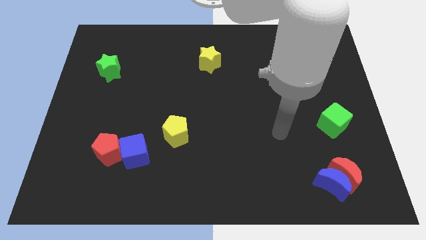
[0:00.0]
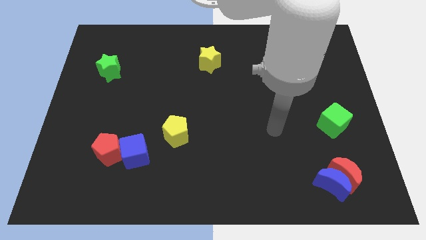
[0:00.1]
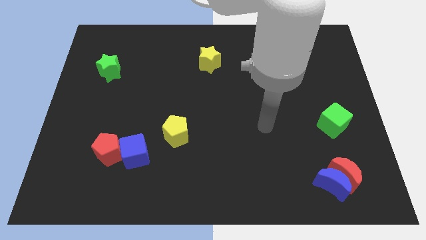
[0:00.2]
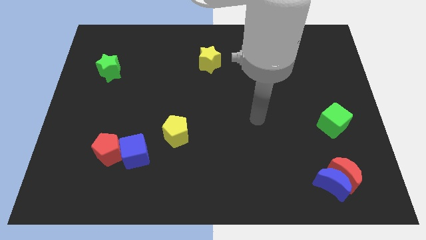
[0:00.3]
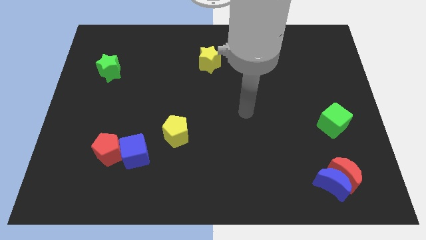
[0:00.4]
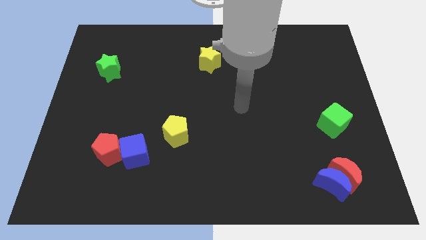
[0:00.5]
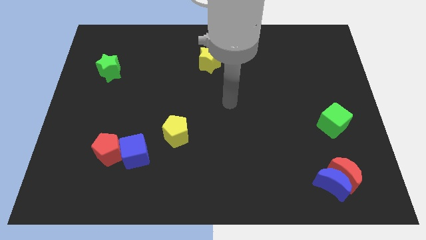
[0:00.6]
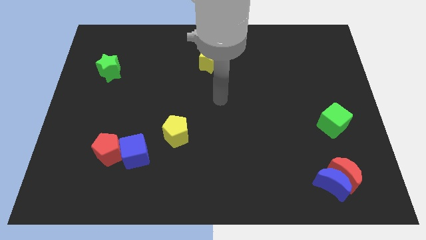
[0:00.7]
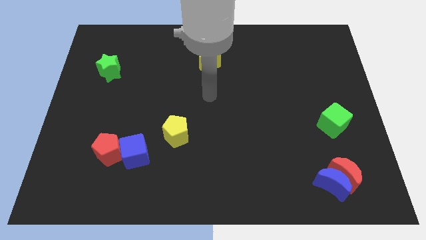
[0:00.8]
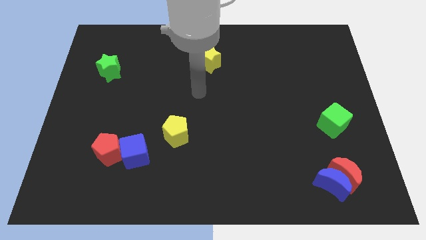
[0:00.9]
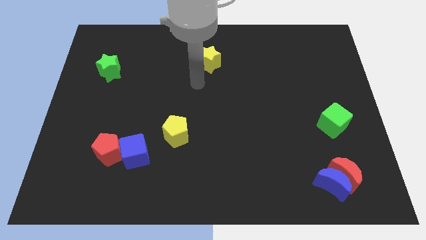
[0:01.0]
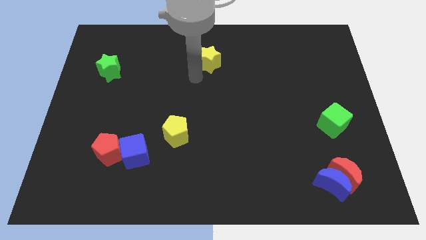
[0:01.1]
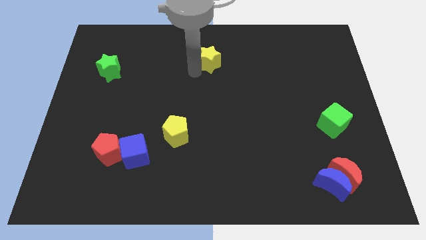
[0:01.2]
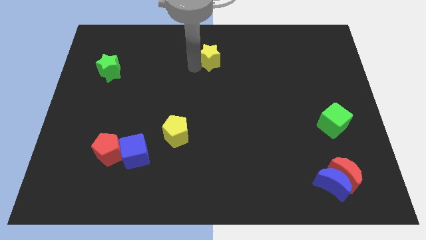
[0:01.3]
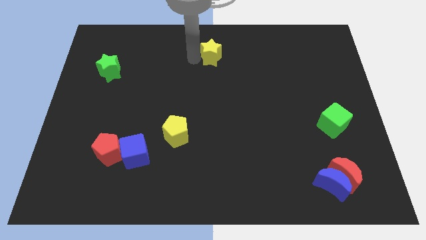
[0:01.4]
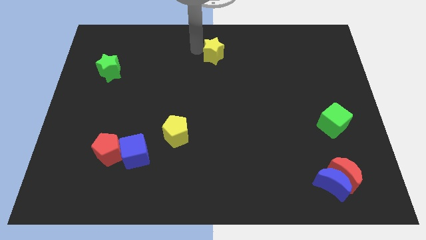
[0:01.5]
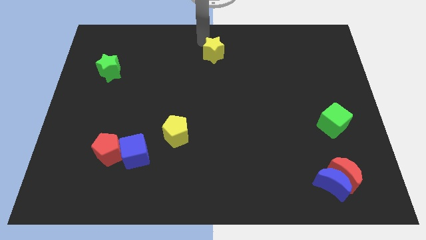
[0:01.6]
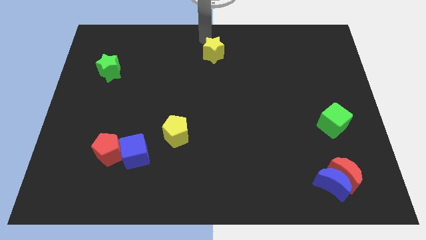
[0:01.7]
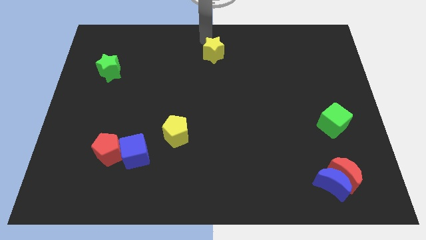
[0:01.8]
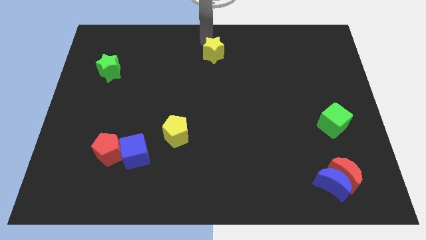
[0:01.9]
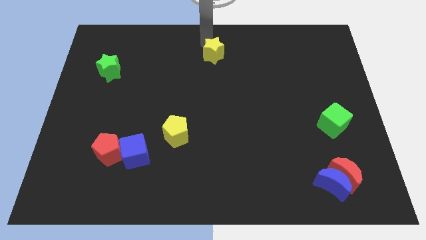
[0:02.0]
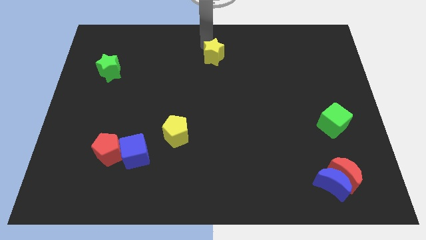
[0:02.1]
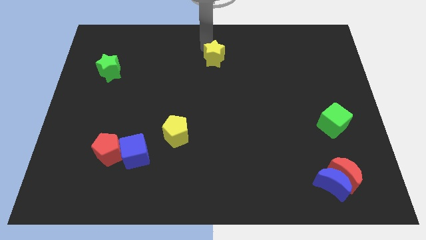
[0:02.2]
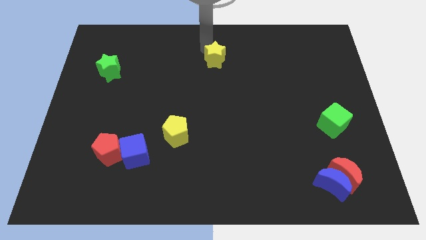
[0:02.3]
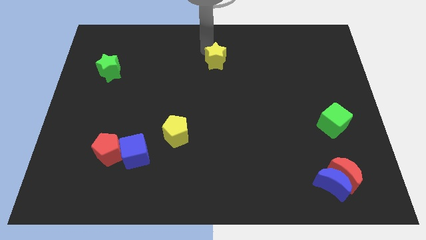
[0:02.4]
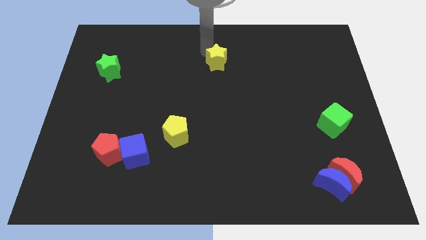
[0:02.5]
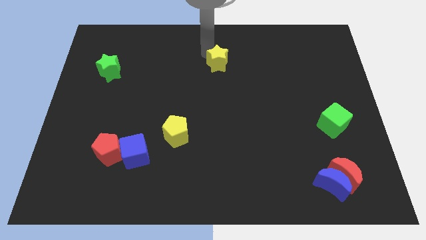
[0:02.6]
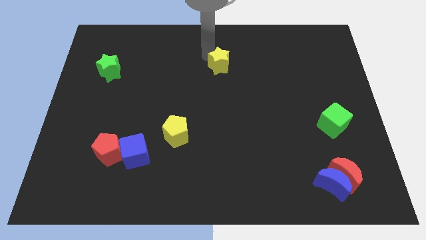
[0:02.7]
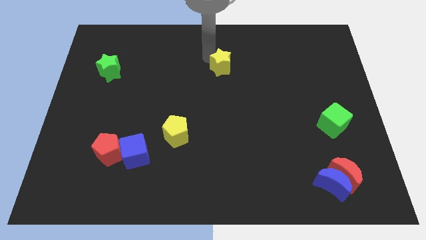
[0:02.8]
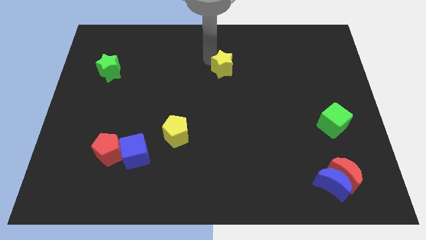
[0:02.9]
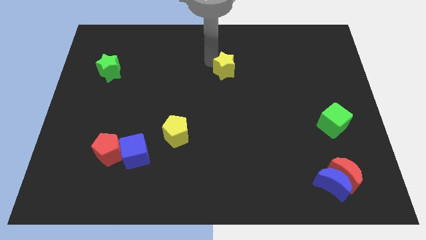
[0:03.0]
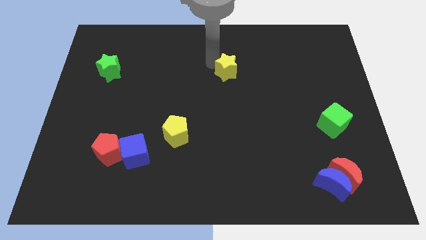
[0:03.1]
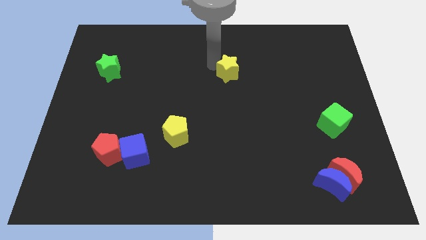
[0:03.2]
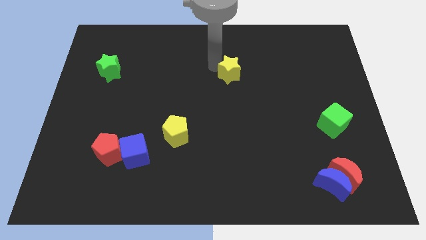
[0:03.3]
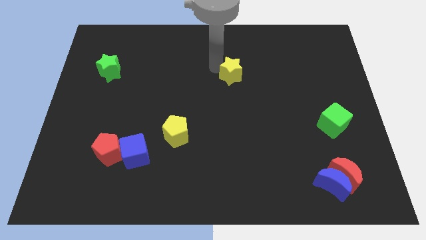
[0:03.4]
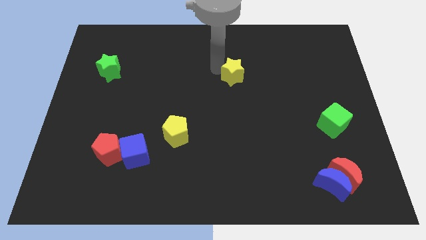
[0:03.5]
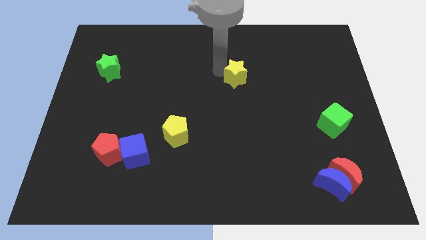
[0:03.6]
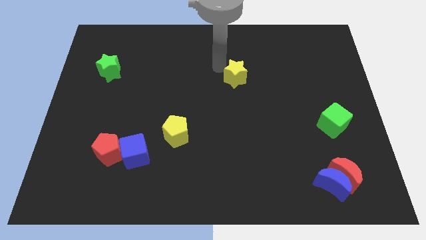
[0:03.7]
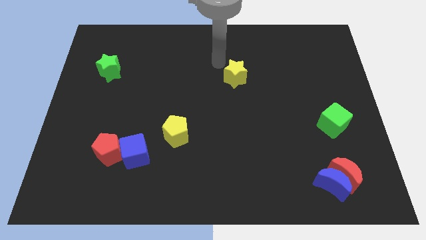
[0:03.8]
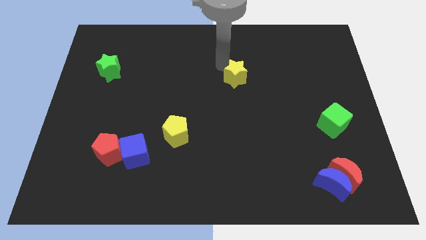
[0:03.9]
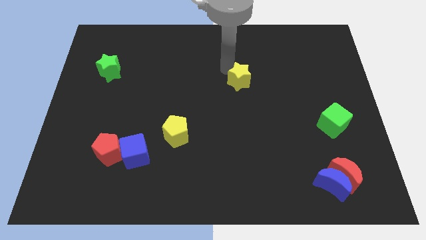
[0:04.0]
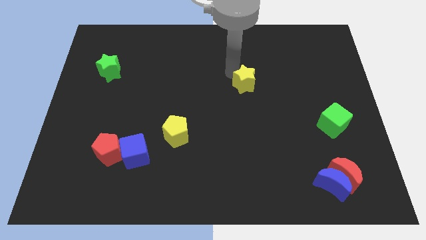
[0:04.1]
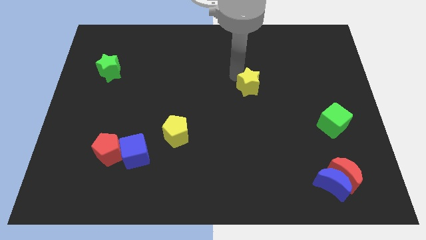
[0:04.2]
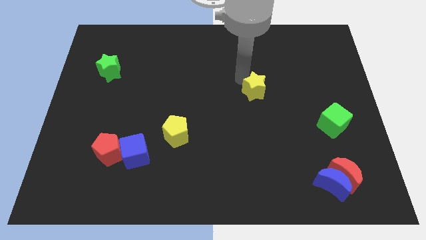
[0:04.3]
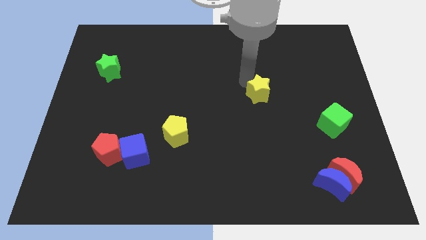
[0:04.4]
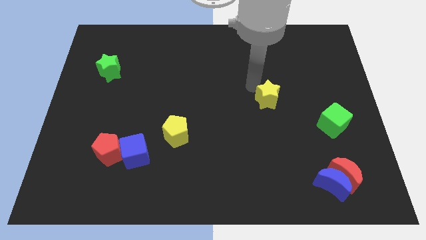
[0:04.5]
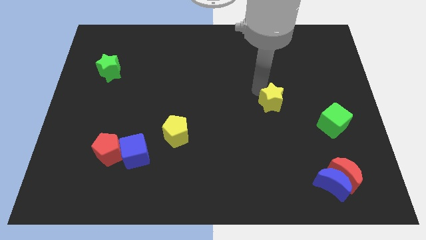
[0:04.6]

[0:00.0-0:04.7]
push the yellow star downwards and right diagonally

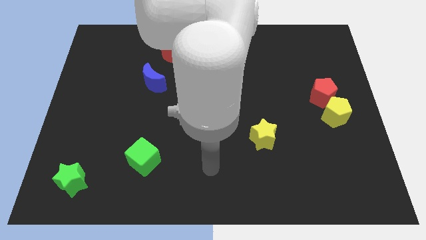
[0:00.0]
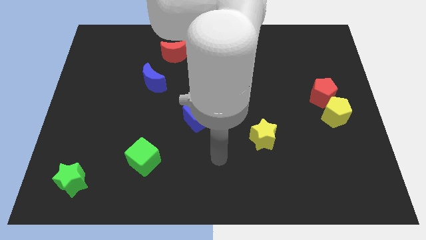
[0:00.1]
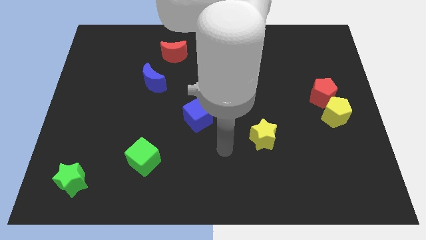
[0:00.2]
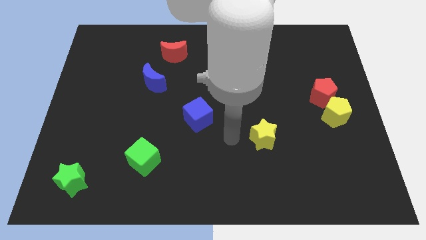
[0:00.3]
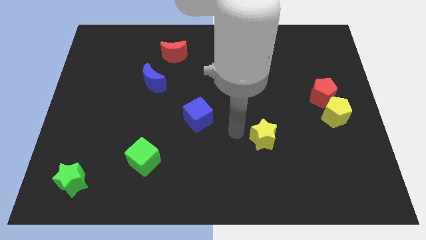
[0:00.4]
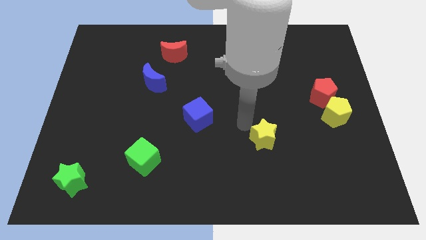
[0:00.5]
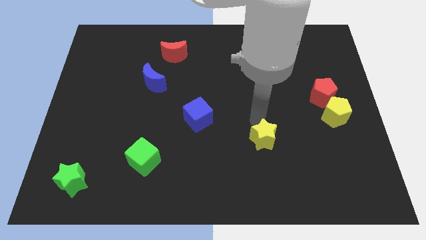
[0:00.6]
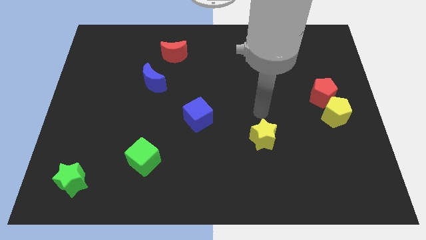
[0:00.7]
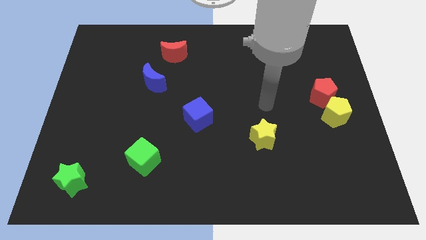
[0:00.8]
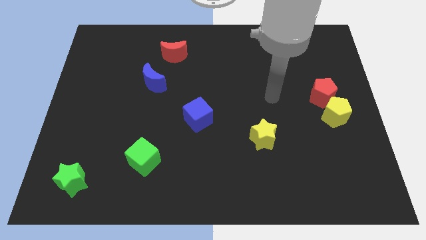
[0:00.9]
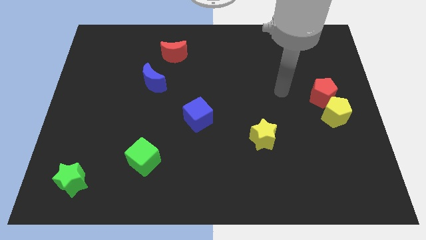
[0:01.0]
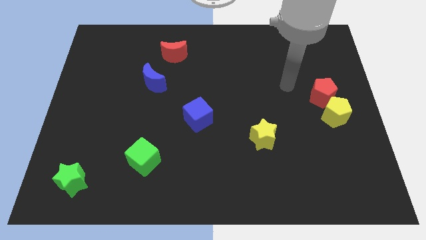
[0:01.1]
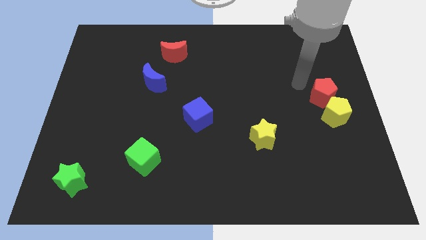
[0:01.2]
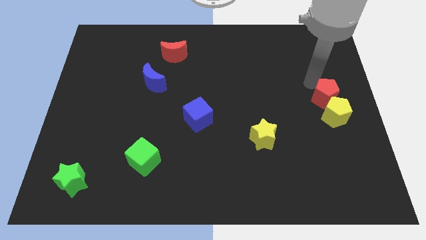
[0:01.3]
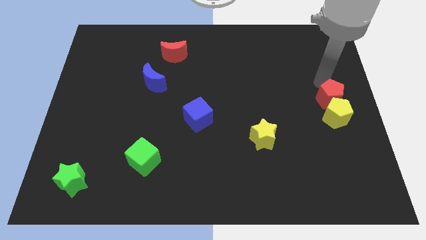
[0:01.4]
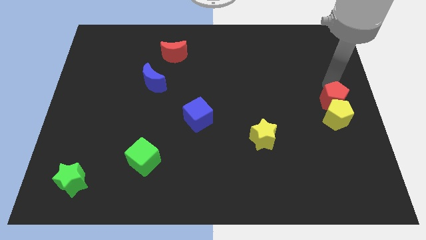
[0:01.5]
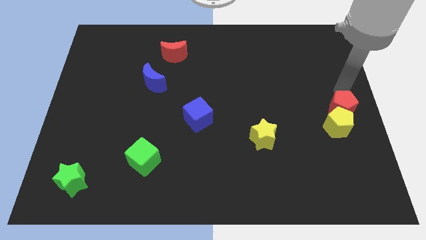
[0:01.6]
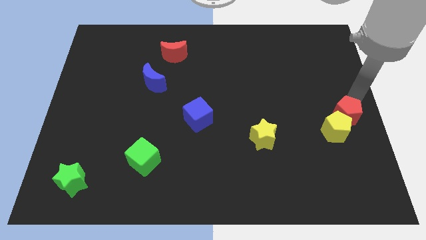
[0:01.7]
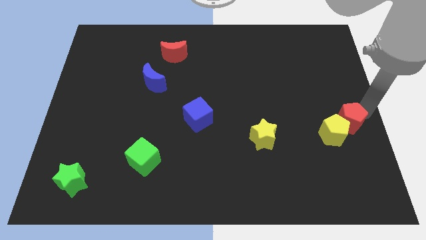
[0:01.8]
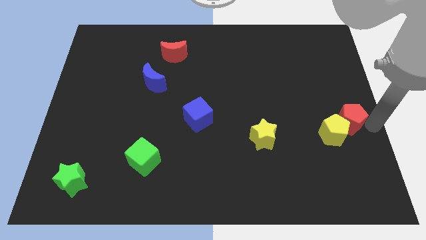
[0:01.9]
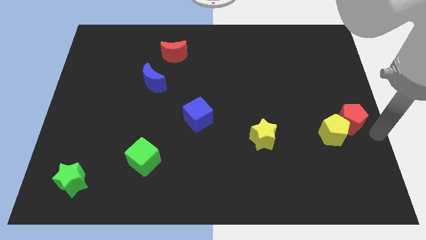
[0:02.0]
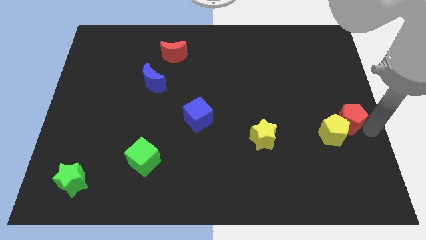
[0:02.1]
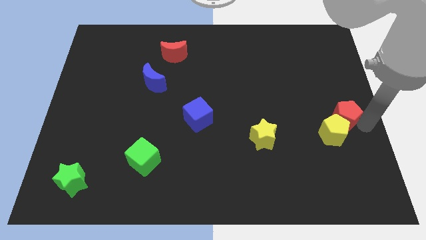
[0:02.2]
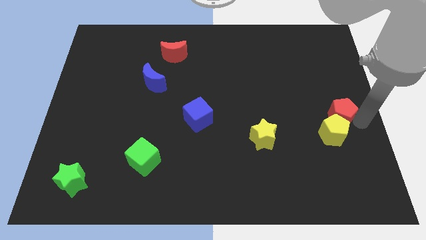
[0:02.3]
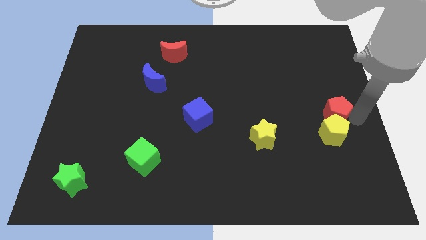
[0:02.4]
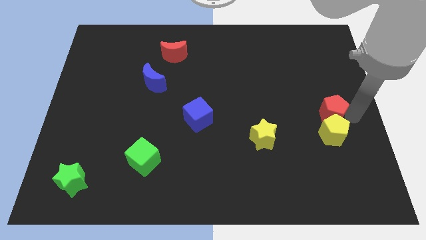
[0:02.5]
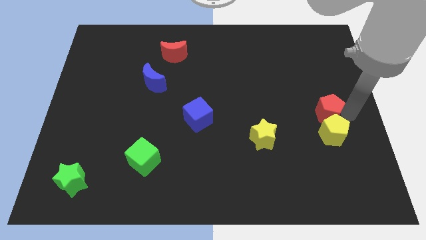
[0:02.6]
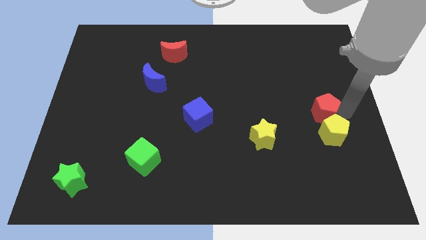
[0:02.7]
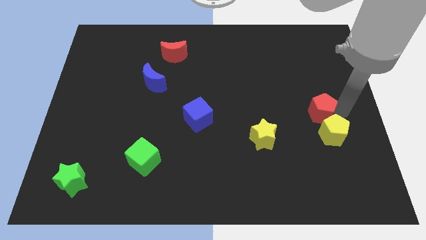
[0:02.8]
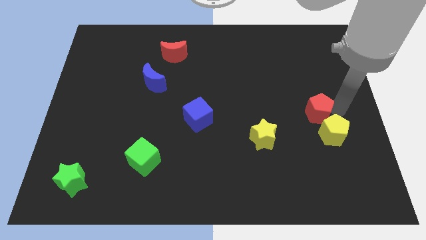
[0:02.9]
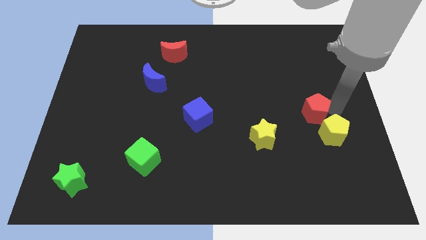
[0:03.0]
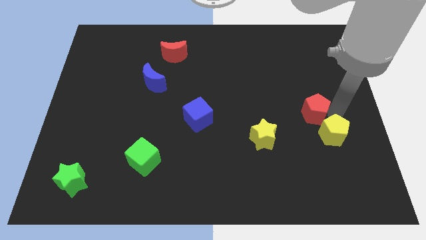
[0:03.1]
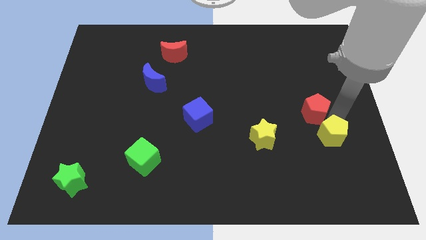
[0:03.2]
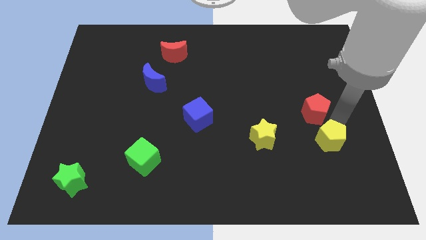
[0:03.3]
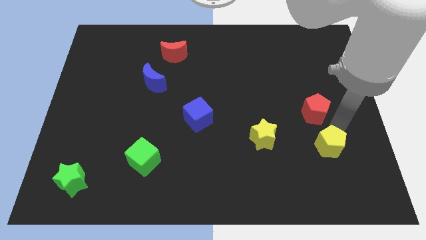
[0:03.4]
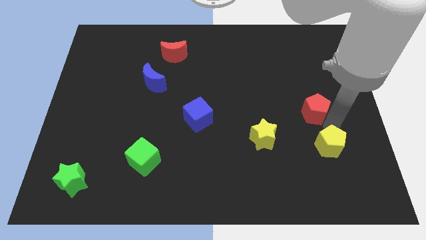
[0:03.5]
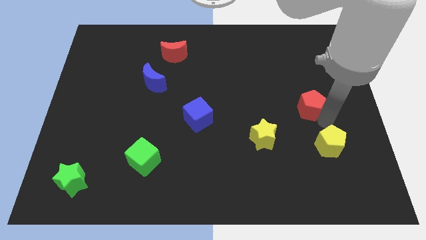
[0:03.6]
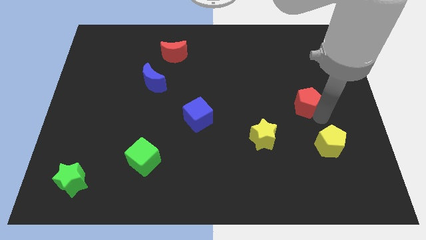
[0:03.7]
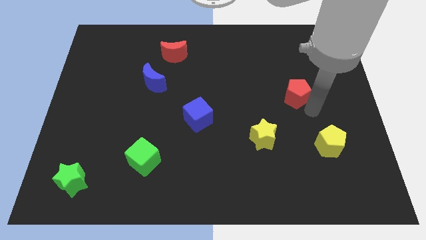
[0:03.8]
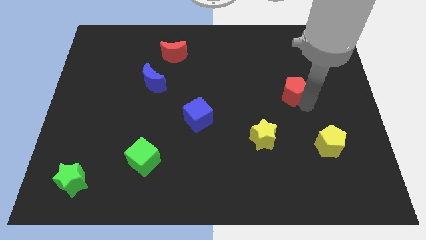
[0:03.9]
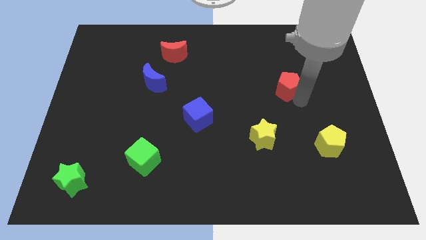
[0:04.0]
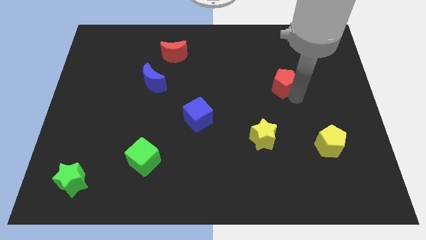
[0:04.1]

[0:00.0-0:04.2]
slightly push the red pentagon diagonally upwards and to the left
